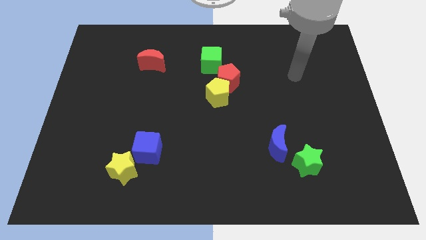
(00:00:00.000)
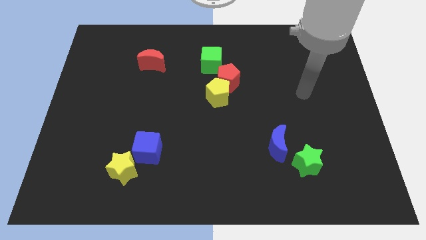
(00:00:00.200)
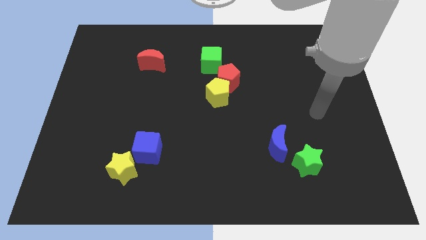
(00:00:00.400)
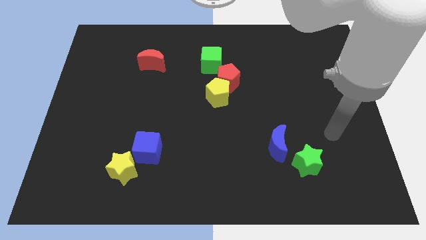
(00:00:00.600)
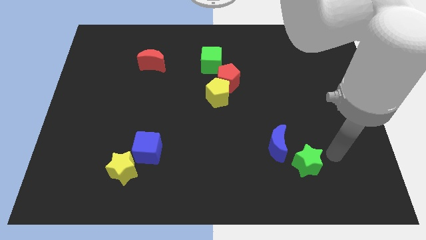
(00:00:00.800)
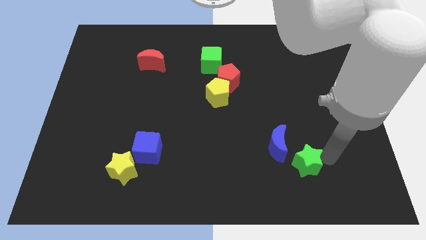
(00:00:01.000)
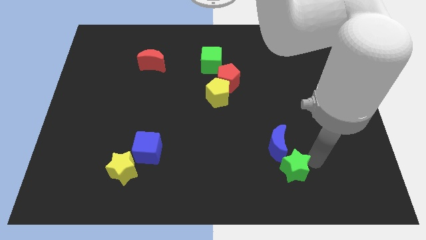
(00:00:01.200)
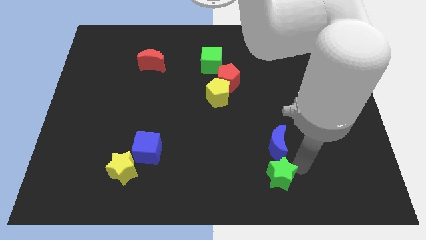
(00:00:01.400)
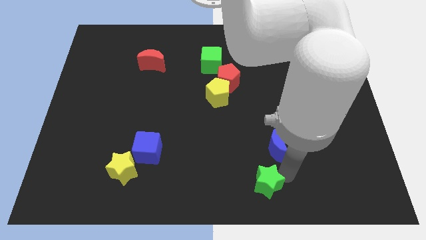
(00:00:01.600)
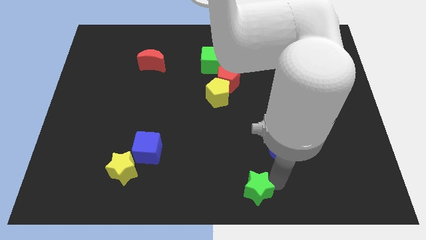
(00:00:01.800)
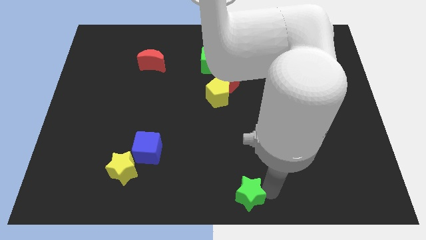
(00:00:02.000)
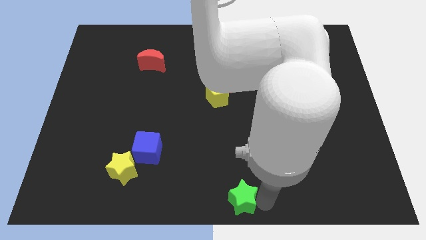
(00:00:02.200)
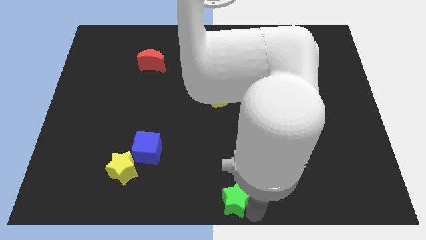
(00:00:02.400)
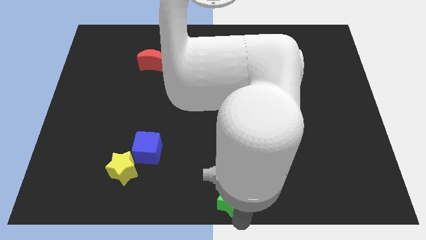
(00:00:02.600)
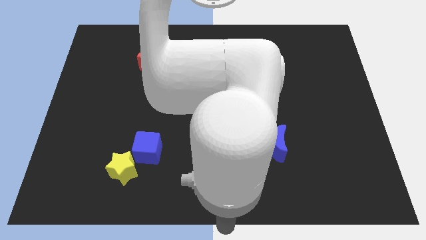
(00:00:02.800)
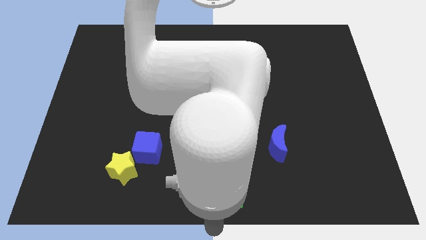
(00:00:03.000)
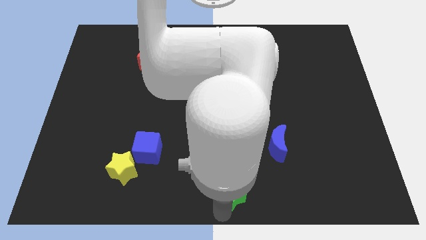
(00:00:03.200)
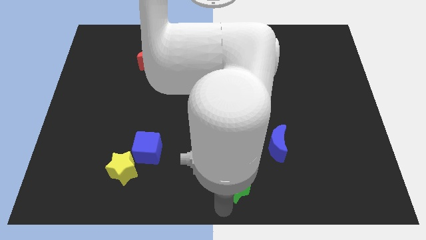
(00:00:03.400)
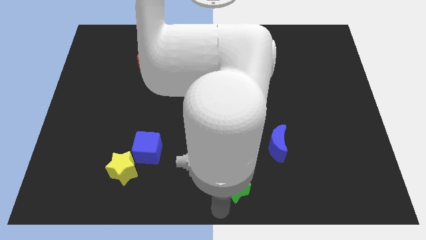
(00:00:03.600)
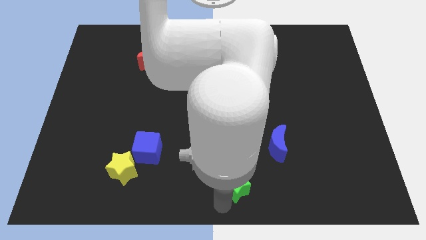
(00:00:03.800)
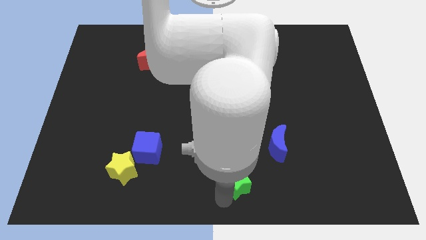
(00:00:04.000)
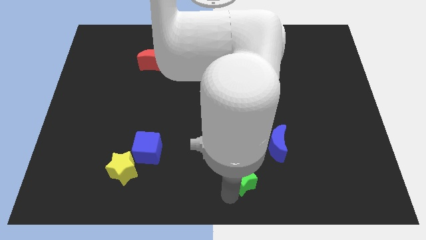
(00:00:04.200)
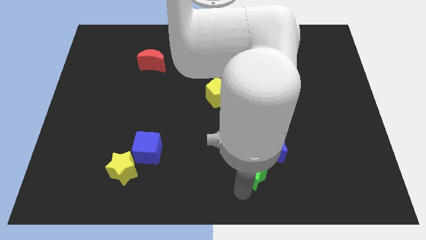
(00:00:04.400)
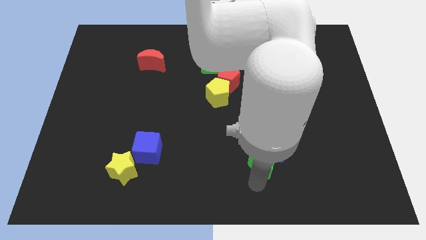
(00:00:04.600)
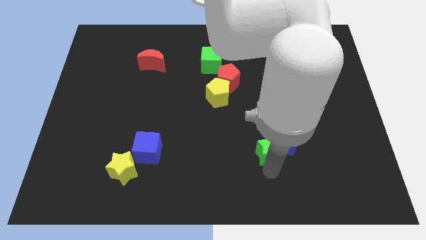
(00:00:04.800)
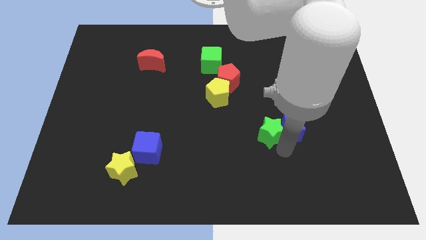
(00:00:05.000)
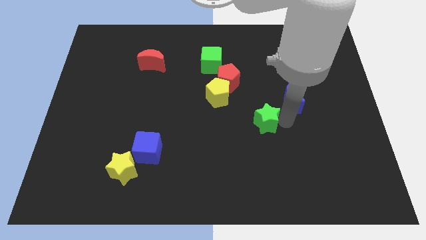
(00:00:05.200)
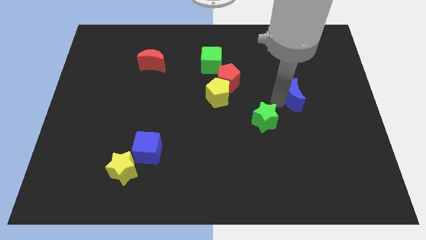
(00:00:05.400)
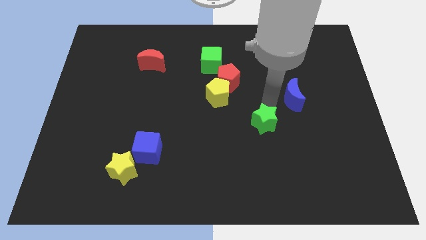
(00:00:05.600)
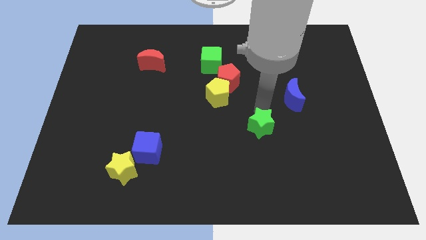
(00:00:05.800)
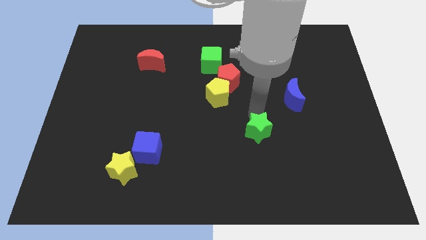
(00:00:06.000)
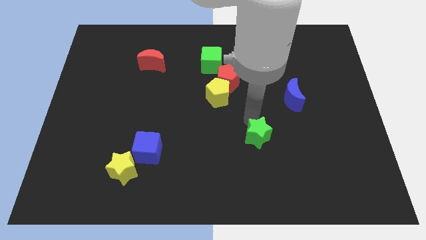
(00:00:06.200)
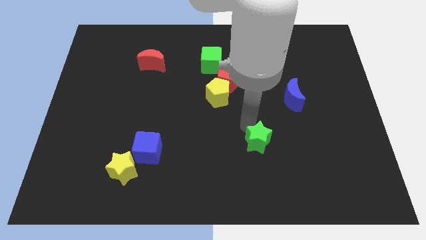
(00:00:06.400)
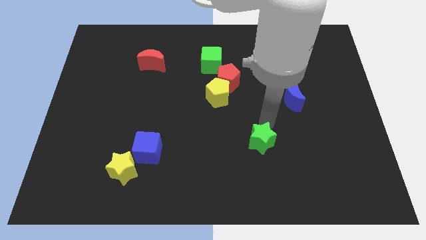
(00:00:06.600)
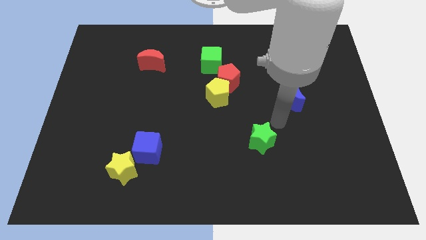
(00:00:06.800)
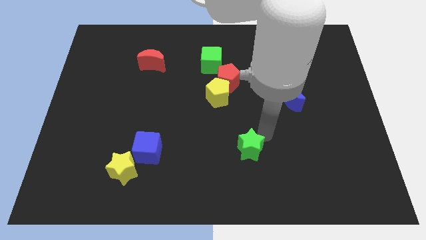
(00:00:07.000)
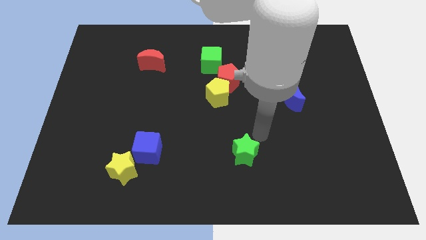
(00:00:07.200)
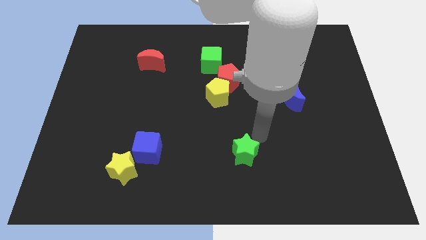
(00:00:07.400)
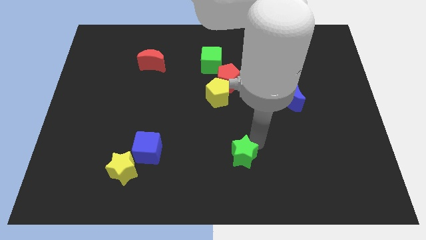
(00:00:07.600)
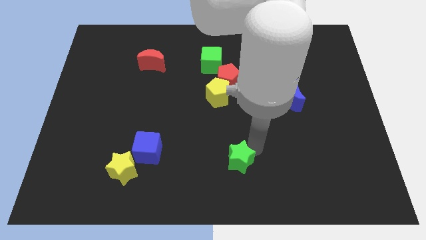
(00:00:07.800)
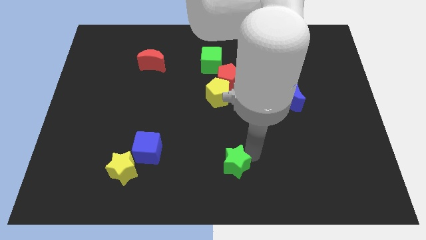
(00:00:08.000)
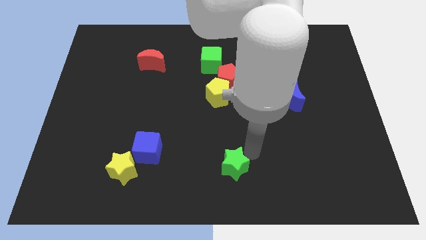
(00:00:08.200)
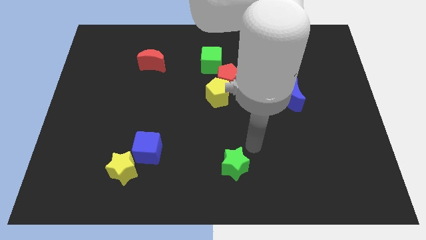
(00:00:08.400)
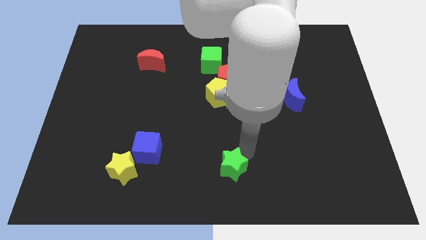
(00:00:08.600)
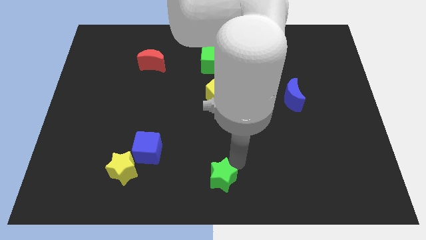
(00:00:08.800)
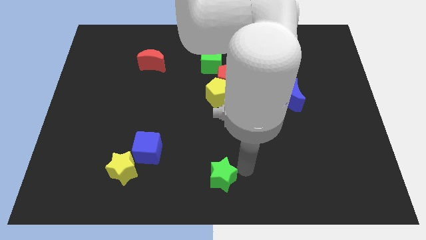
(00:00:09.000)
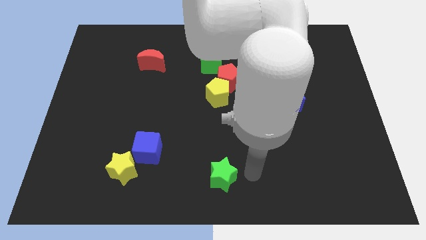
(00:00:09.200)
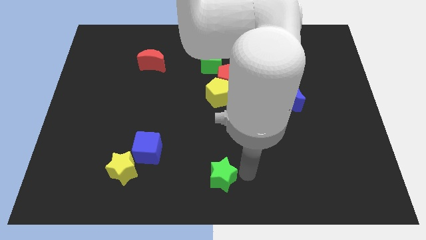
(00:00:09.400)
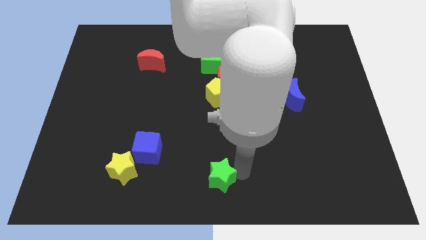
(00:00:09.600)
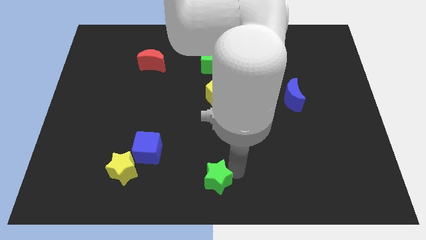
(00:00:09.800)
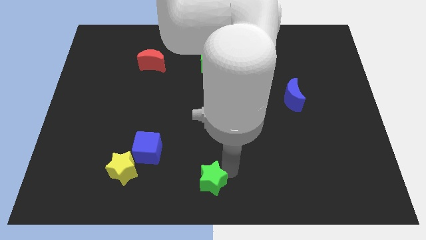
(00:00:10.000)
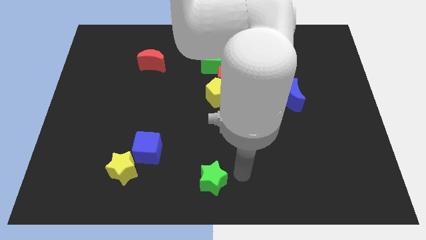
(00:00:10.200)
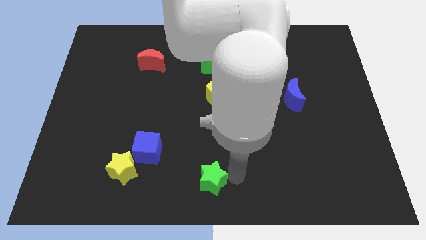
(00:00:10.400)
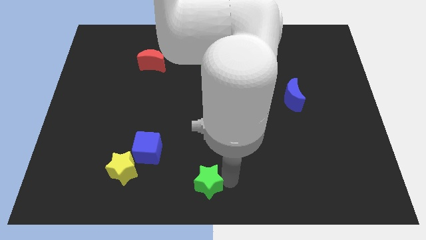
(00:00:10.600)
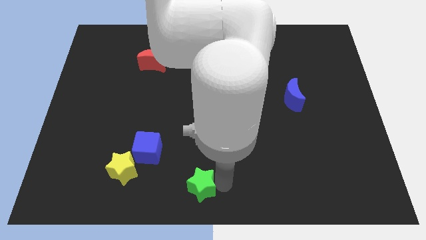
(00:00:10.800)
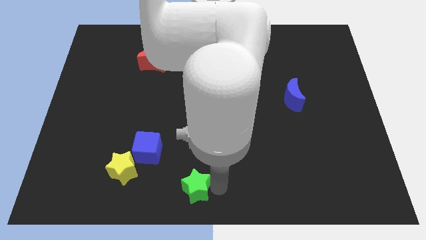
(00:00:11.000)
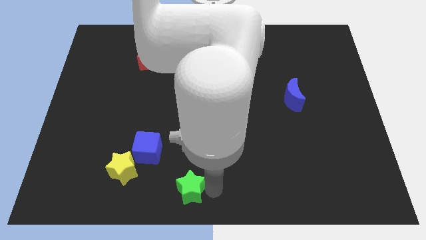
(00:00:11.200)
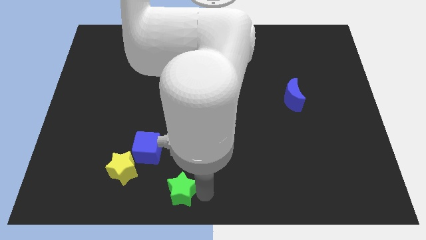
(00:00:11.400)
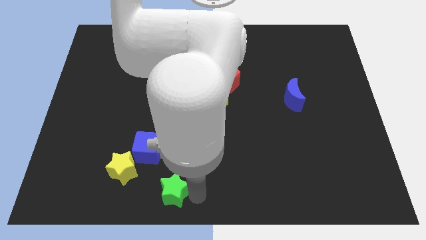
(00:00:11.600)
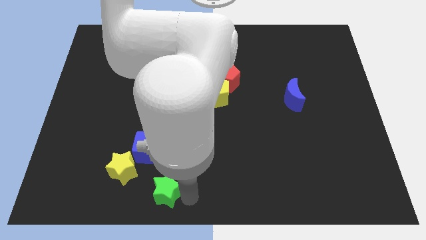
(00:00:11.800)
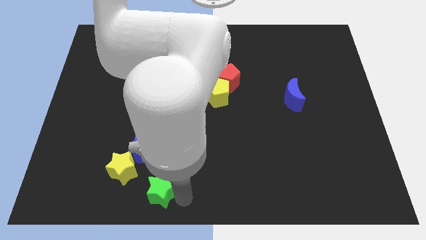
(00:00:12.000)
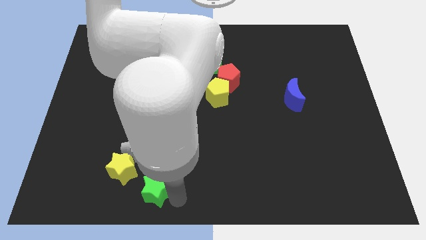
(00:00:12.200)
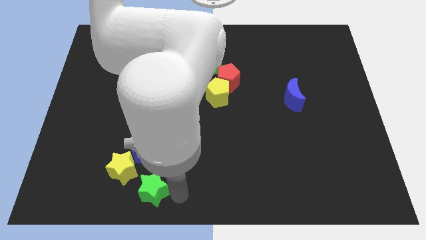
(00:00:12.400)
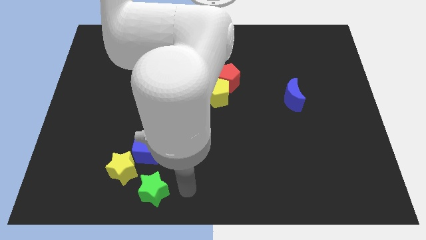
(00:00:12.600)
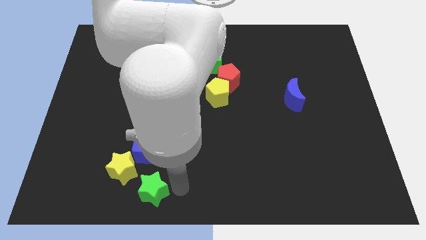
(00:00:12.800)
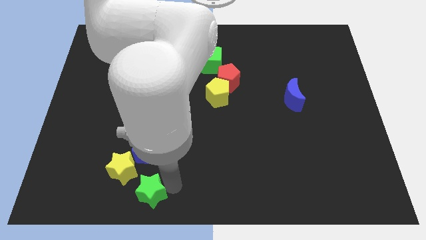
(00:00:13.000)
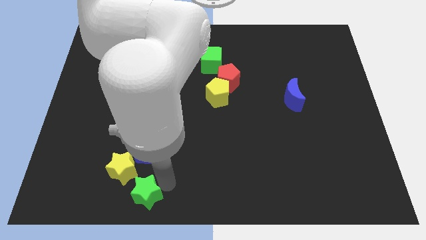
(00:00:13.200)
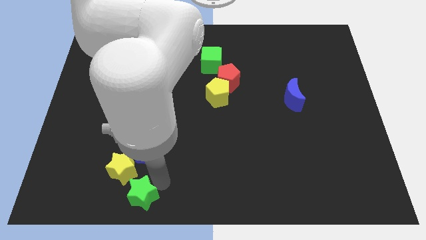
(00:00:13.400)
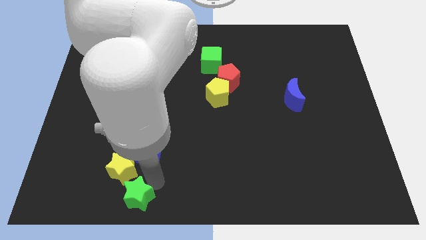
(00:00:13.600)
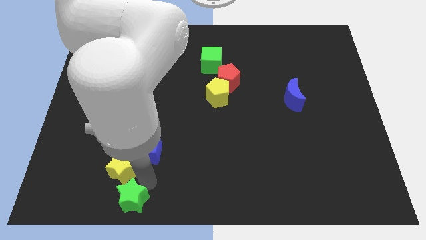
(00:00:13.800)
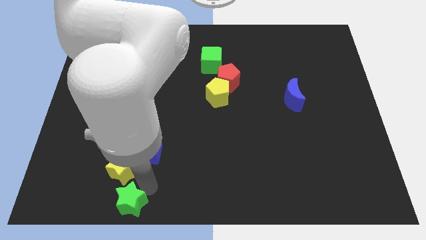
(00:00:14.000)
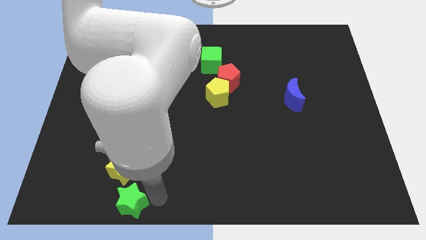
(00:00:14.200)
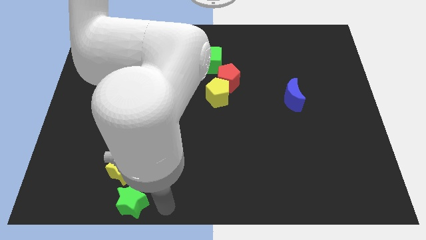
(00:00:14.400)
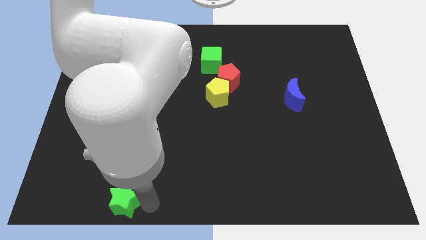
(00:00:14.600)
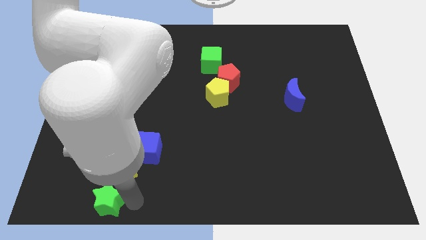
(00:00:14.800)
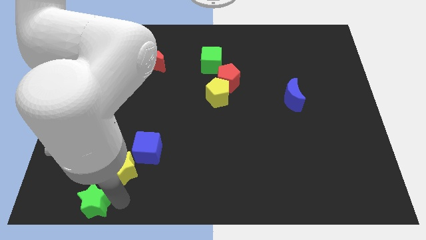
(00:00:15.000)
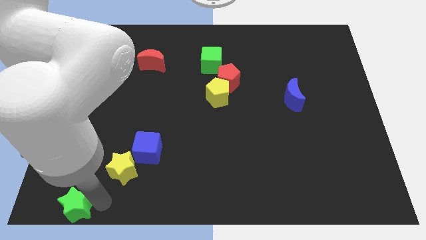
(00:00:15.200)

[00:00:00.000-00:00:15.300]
move the green star to the lower left corner
